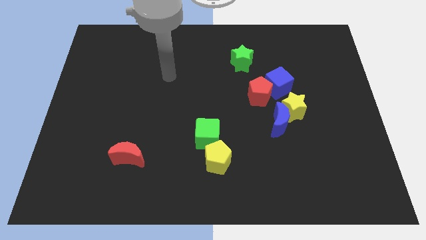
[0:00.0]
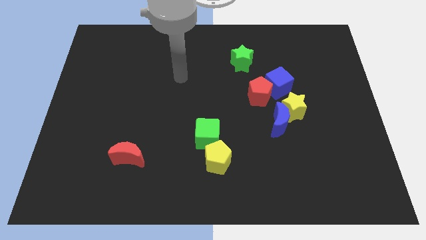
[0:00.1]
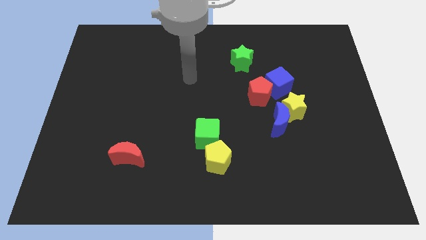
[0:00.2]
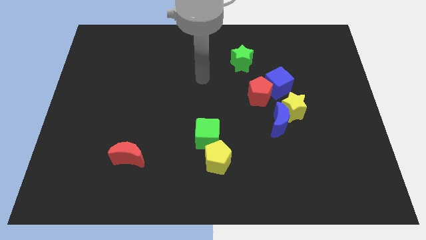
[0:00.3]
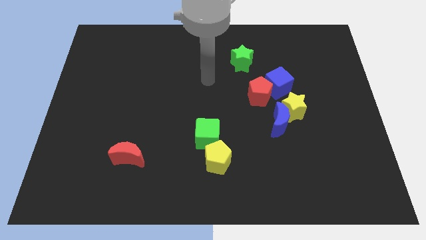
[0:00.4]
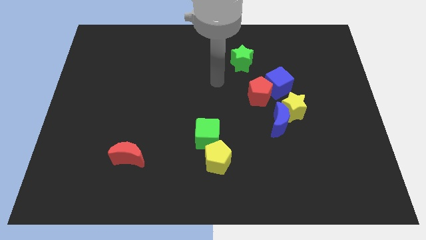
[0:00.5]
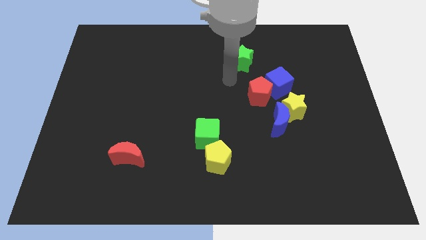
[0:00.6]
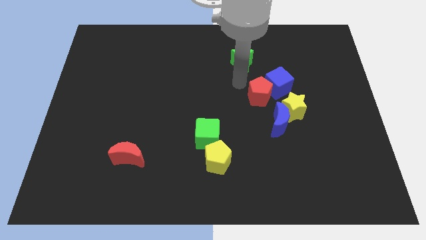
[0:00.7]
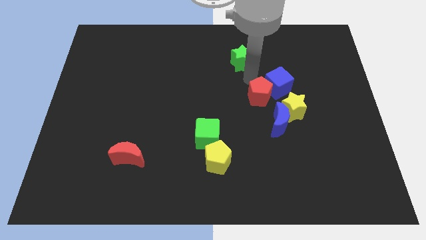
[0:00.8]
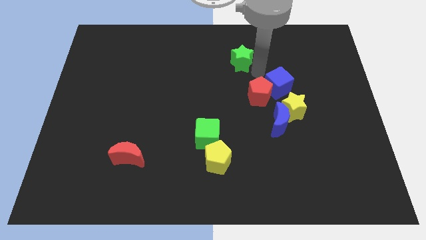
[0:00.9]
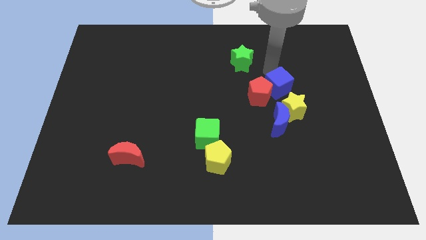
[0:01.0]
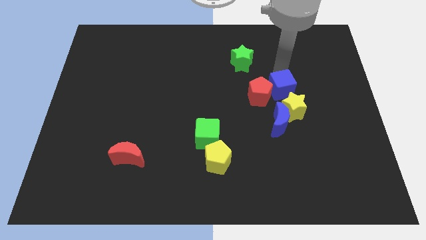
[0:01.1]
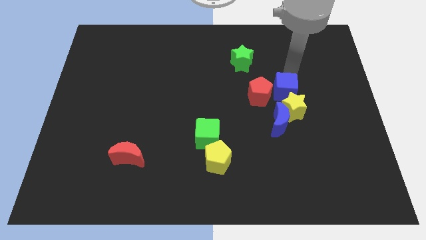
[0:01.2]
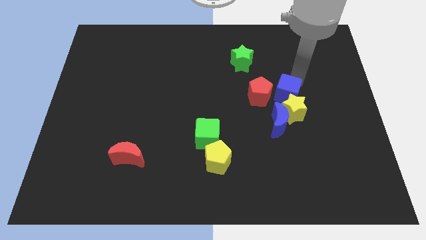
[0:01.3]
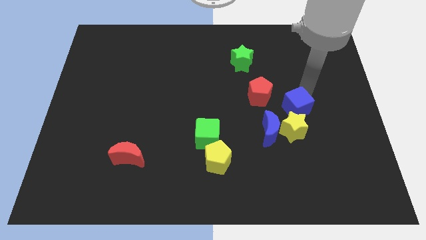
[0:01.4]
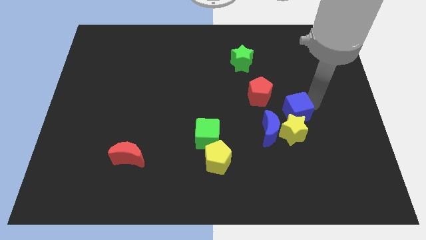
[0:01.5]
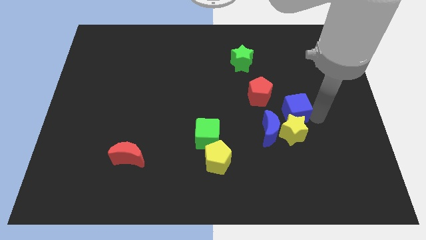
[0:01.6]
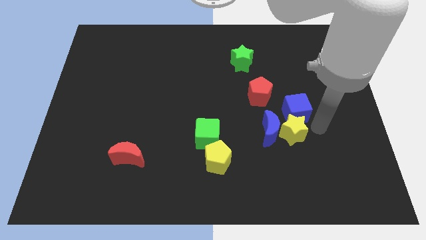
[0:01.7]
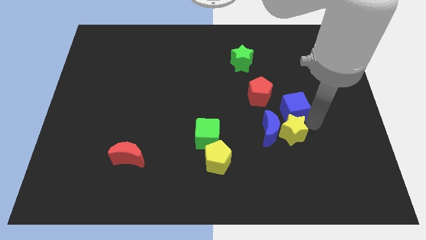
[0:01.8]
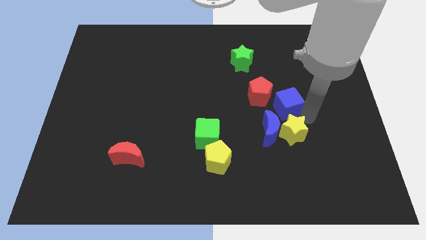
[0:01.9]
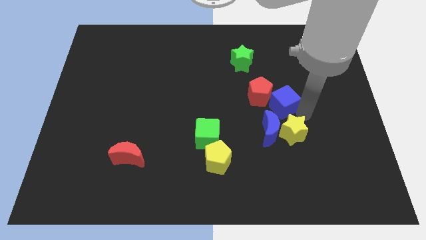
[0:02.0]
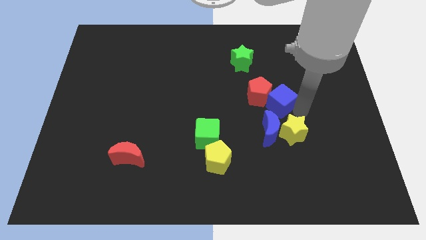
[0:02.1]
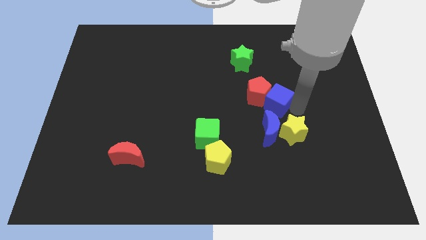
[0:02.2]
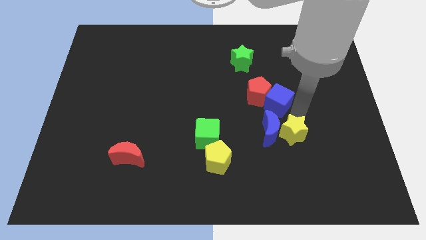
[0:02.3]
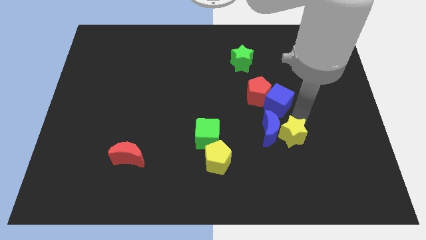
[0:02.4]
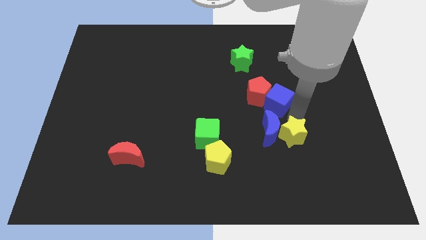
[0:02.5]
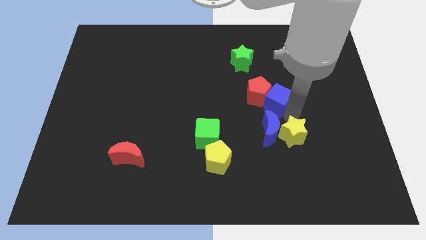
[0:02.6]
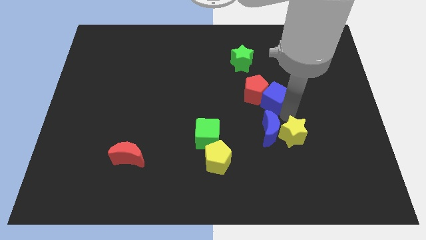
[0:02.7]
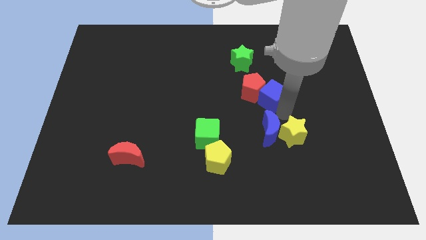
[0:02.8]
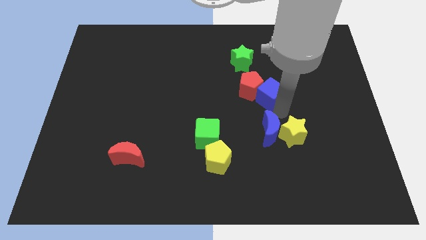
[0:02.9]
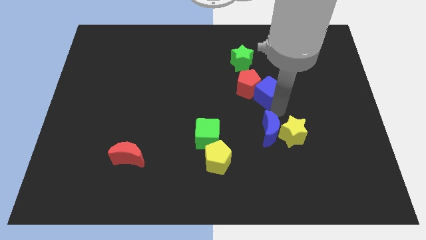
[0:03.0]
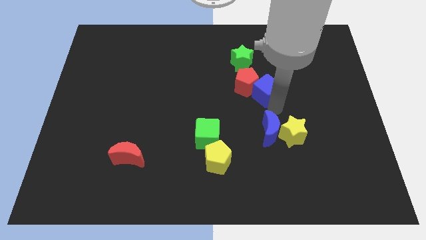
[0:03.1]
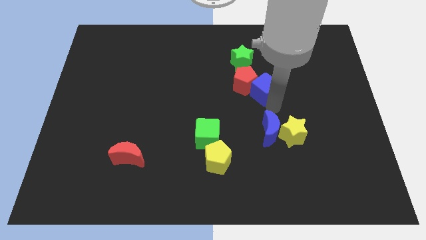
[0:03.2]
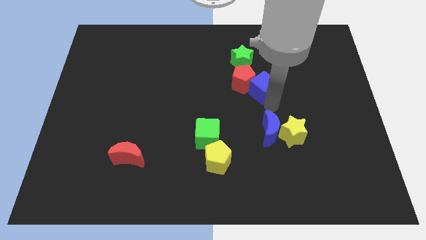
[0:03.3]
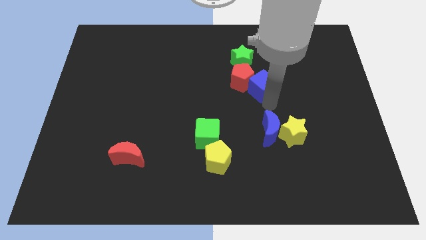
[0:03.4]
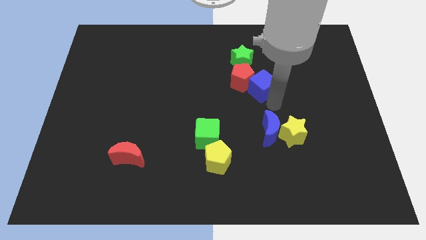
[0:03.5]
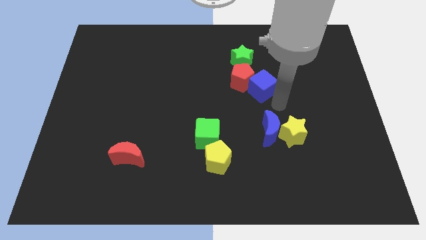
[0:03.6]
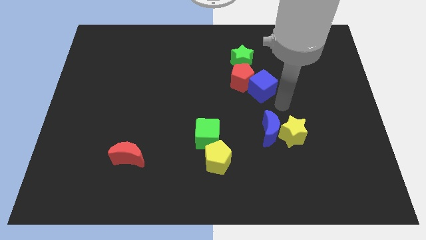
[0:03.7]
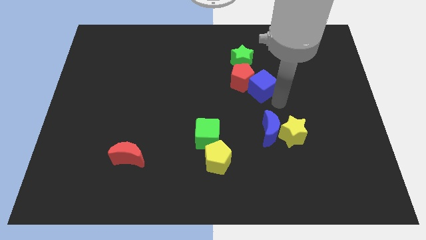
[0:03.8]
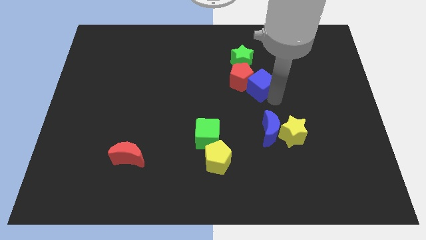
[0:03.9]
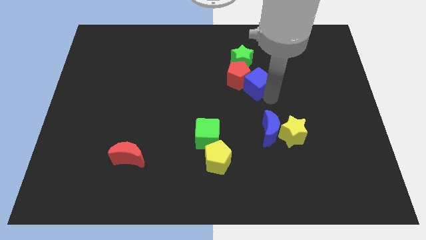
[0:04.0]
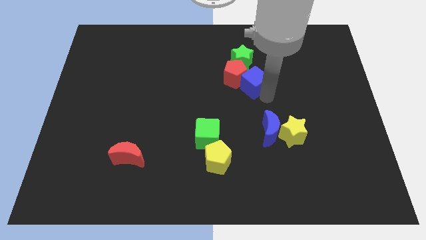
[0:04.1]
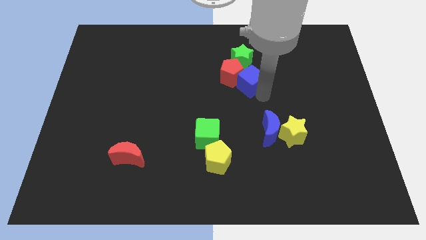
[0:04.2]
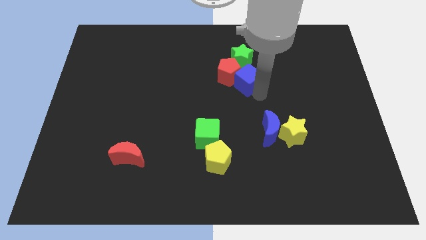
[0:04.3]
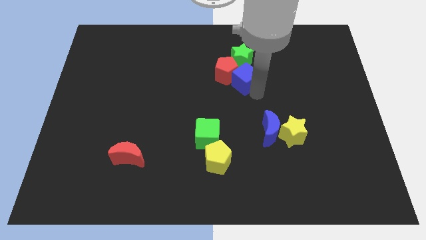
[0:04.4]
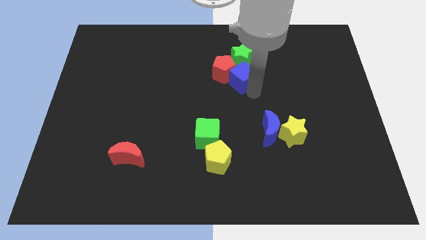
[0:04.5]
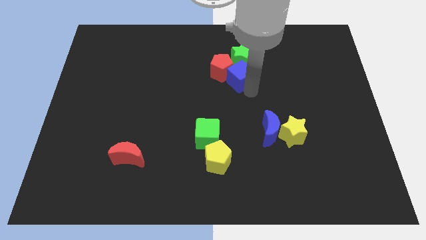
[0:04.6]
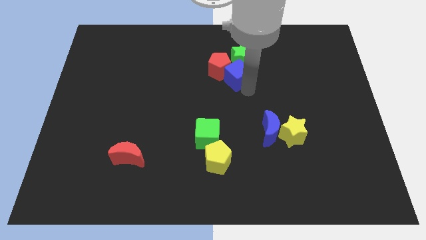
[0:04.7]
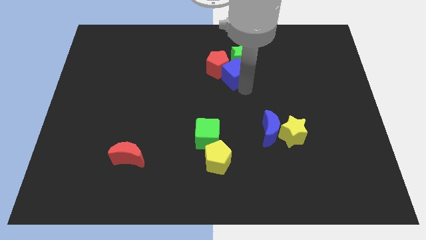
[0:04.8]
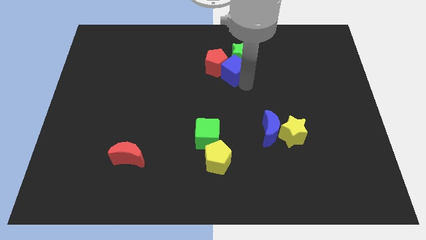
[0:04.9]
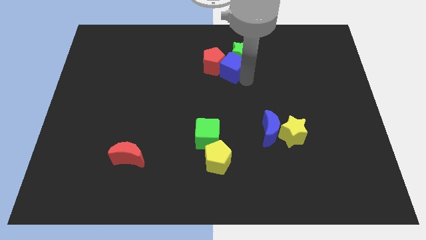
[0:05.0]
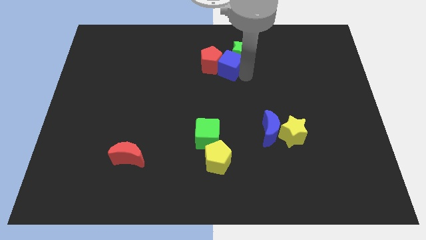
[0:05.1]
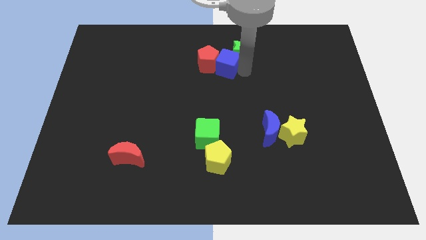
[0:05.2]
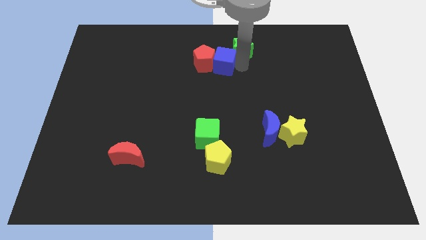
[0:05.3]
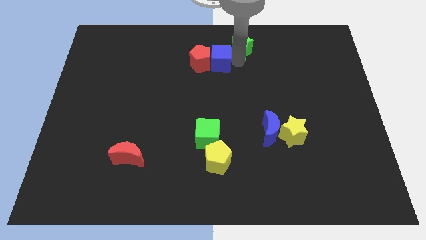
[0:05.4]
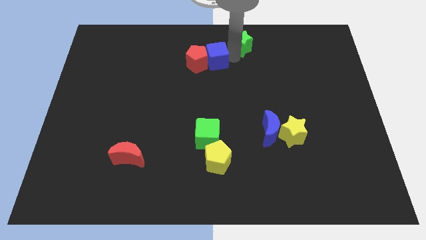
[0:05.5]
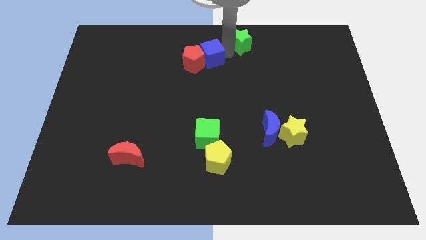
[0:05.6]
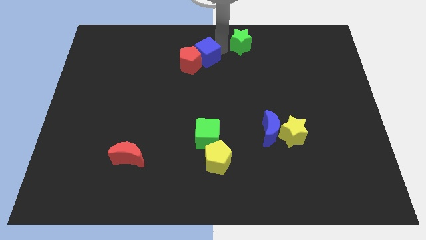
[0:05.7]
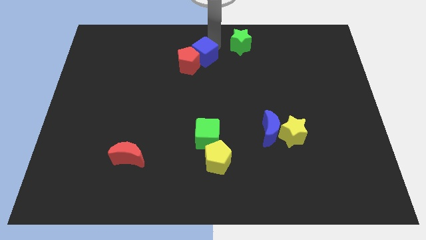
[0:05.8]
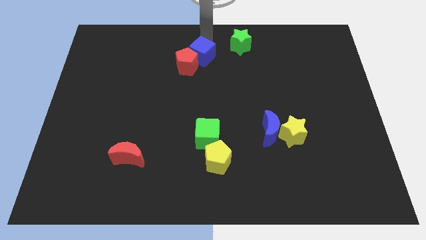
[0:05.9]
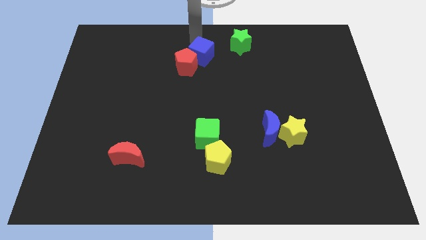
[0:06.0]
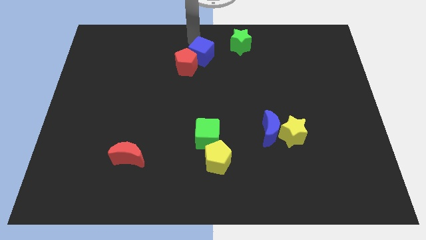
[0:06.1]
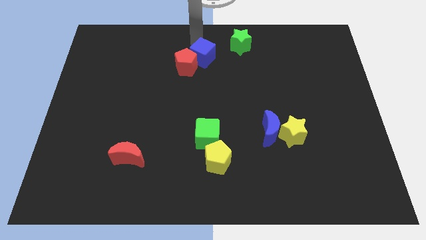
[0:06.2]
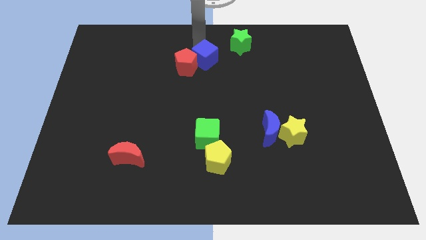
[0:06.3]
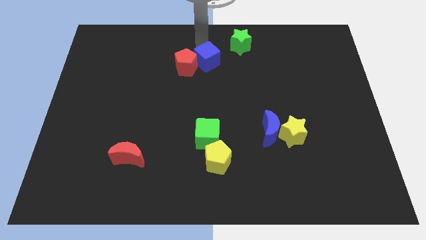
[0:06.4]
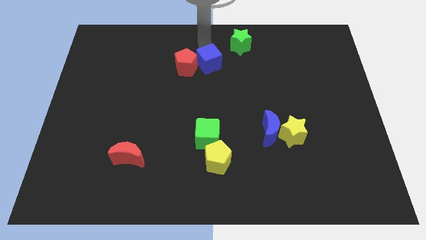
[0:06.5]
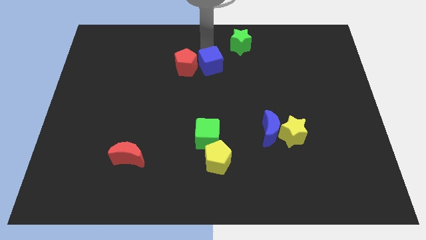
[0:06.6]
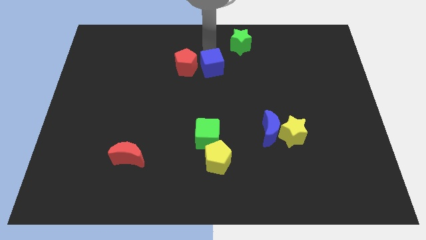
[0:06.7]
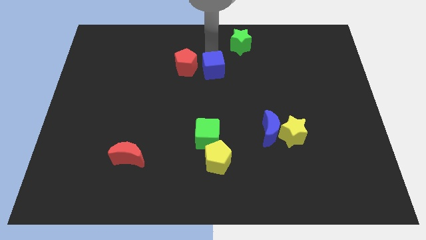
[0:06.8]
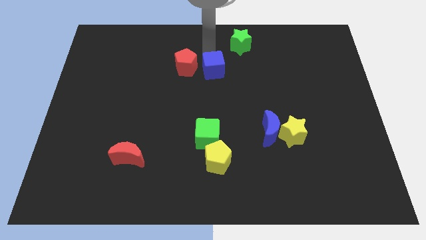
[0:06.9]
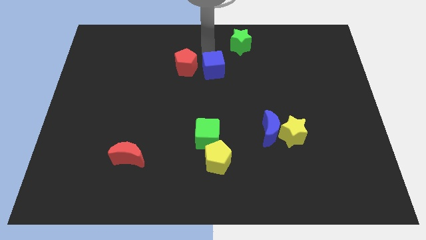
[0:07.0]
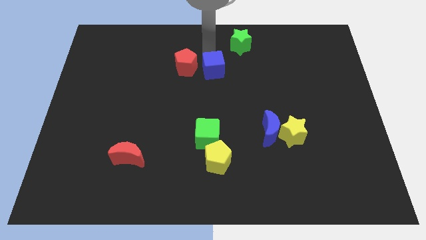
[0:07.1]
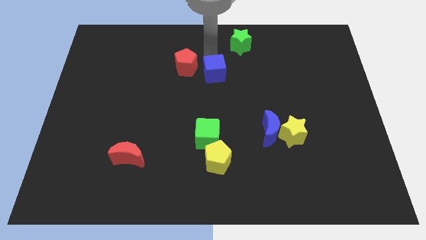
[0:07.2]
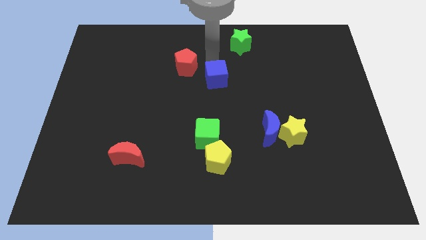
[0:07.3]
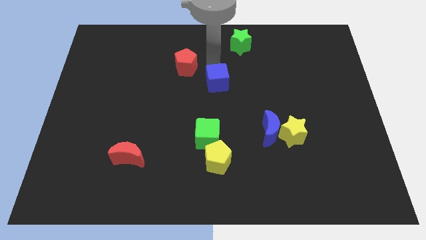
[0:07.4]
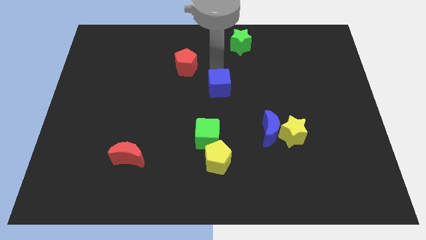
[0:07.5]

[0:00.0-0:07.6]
move the blue cube above the green cube
